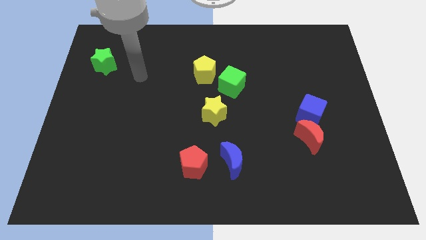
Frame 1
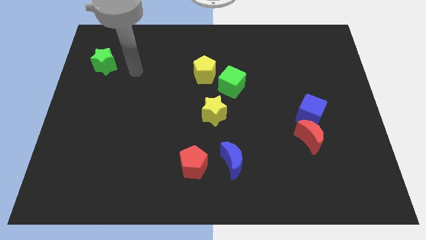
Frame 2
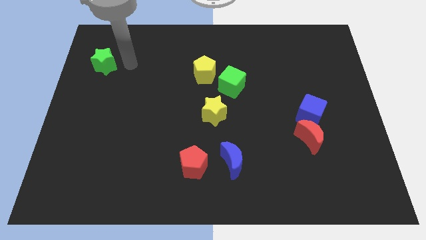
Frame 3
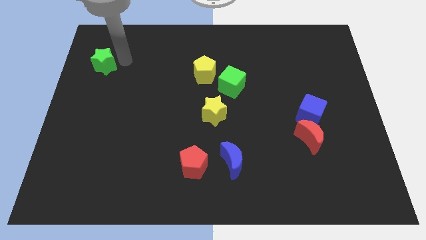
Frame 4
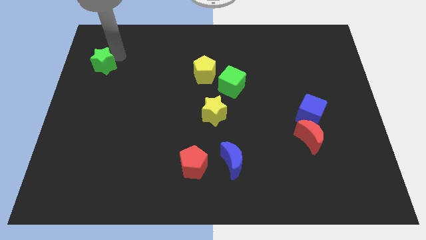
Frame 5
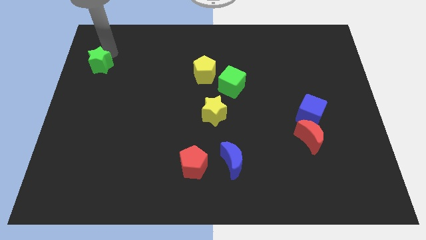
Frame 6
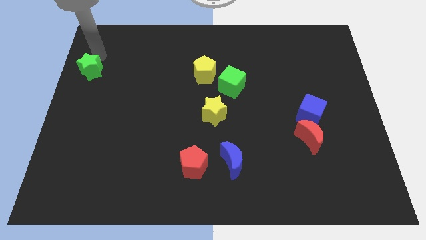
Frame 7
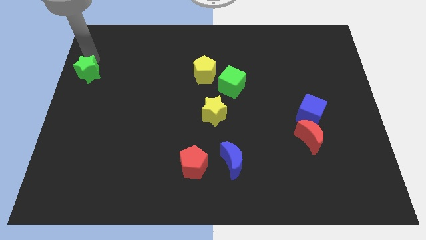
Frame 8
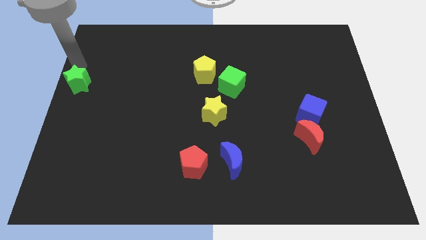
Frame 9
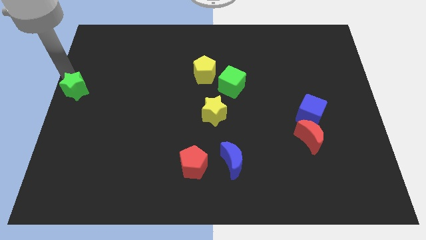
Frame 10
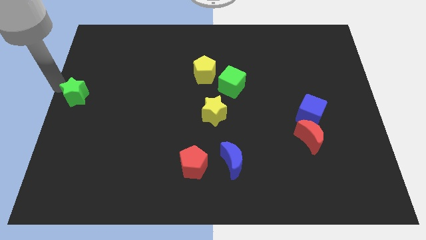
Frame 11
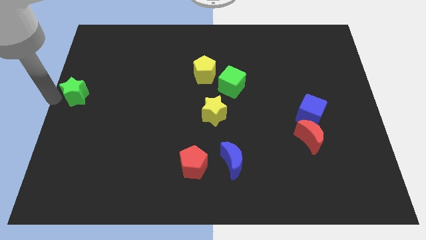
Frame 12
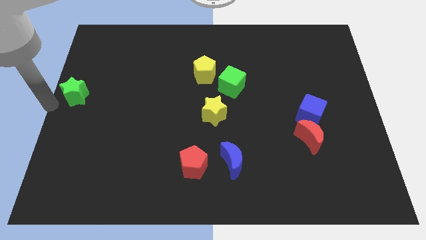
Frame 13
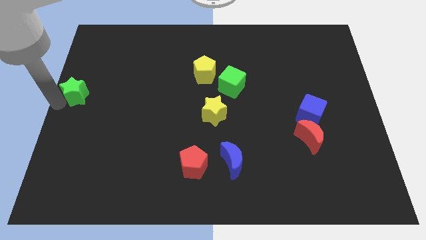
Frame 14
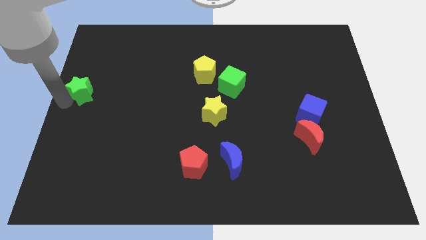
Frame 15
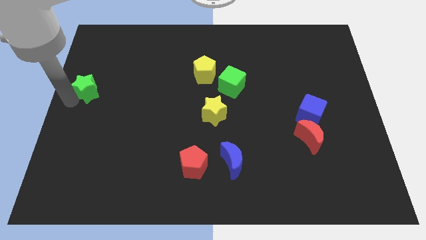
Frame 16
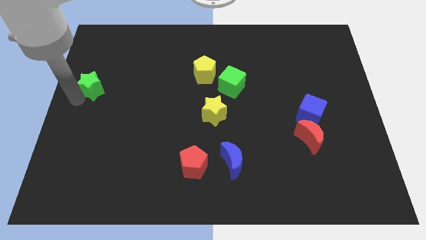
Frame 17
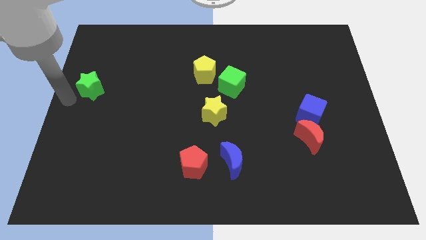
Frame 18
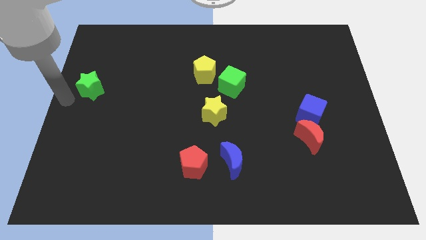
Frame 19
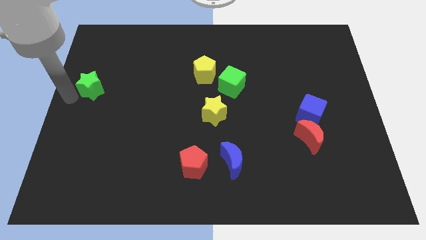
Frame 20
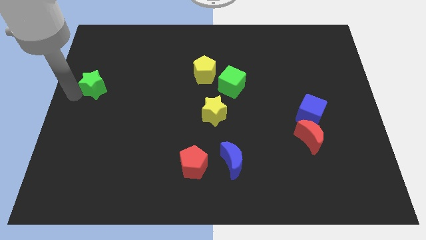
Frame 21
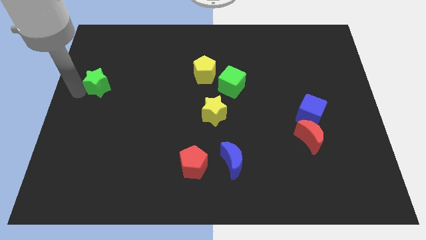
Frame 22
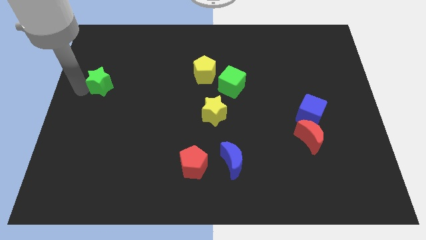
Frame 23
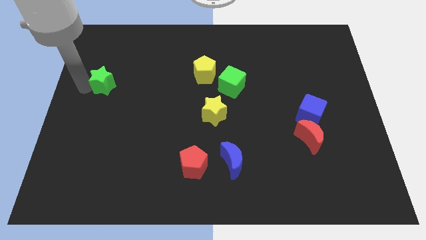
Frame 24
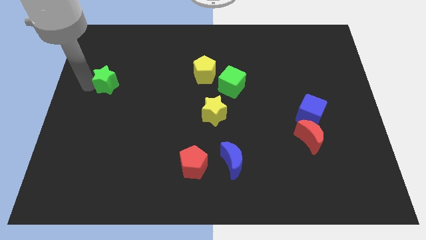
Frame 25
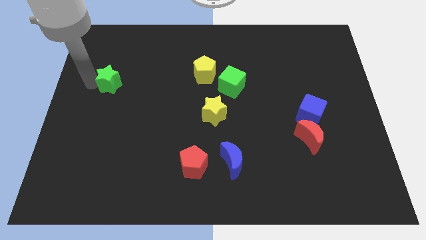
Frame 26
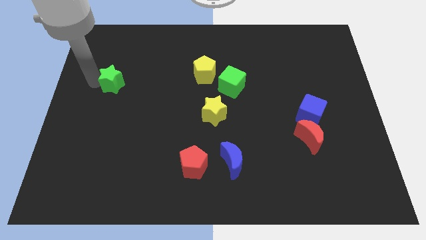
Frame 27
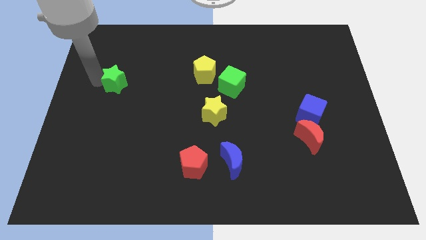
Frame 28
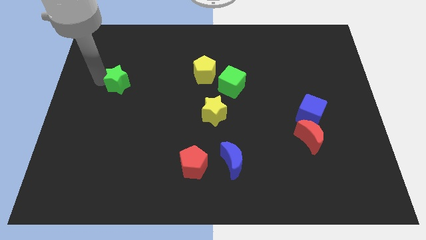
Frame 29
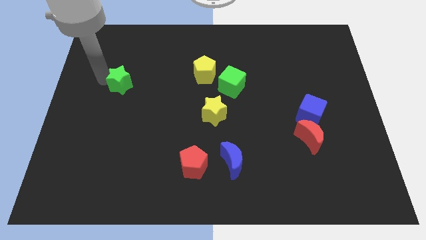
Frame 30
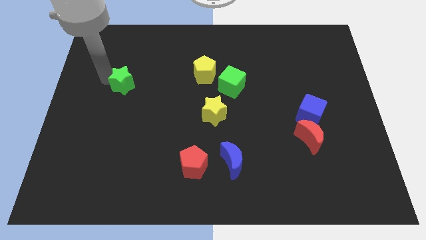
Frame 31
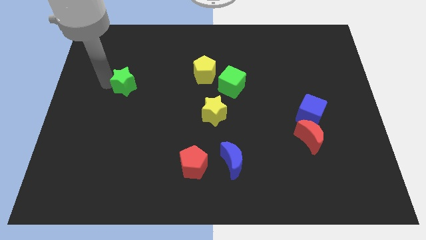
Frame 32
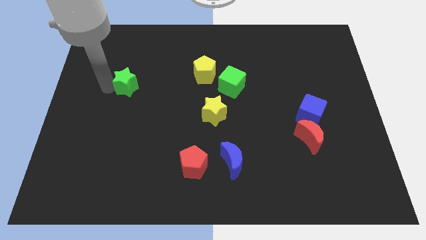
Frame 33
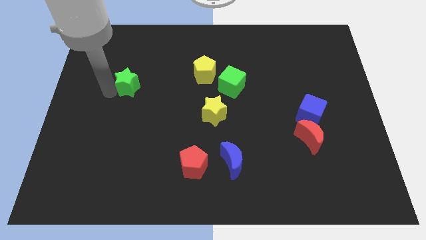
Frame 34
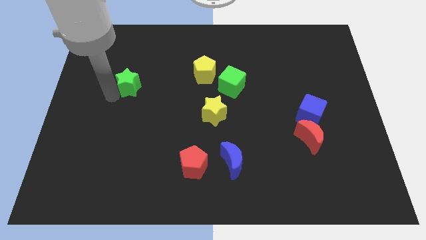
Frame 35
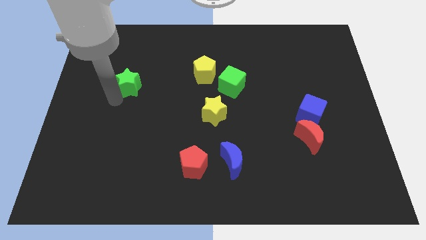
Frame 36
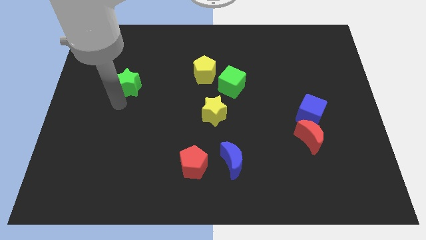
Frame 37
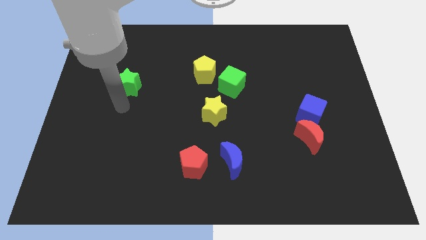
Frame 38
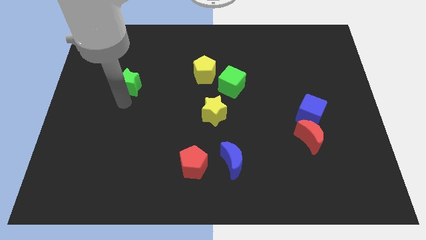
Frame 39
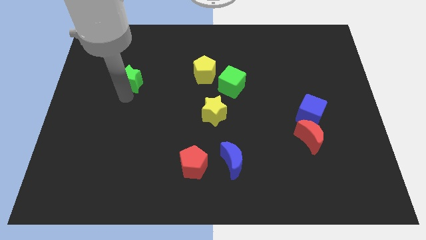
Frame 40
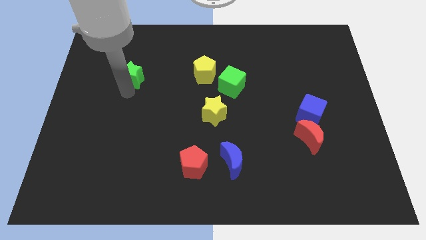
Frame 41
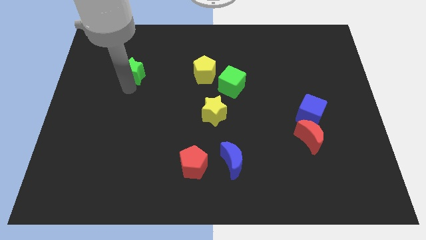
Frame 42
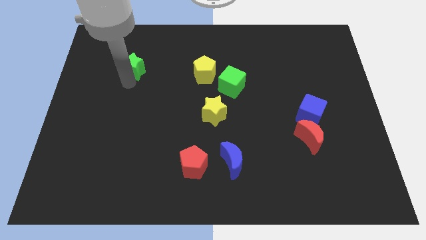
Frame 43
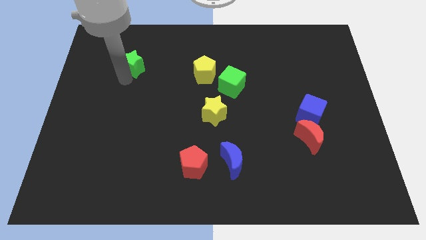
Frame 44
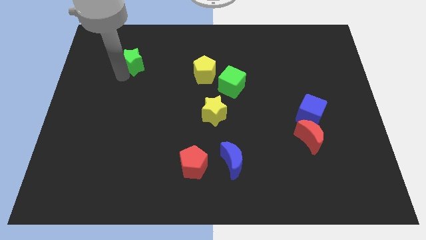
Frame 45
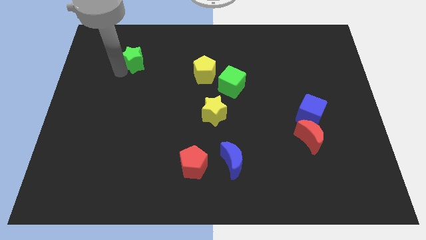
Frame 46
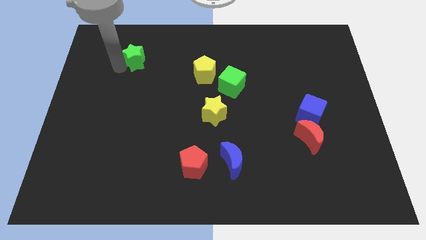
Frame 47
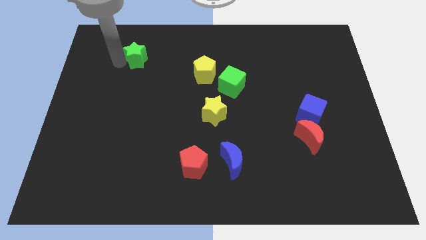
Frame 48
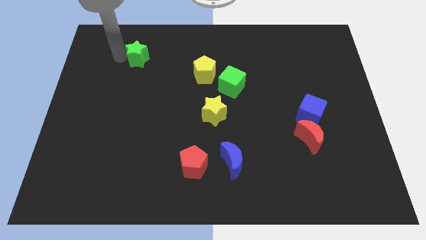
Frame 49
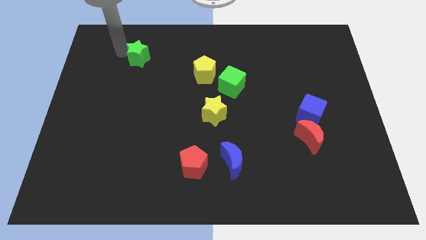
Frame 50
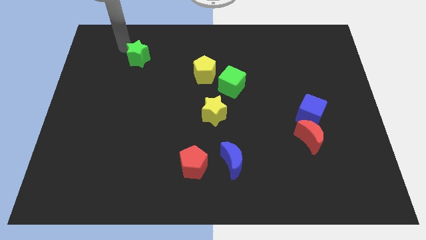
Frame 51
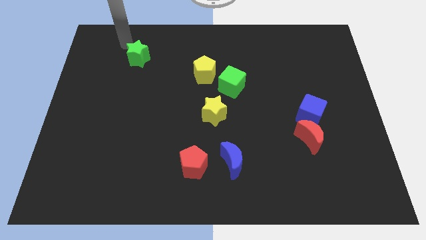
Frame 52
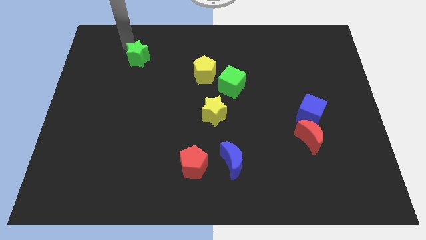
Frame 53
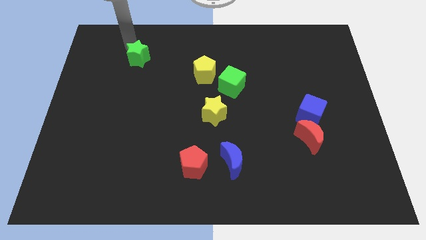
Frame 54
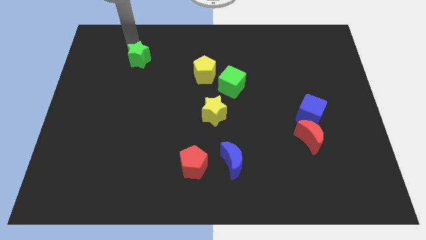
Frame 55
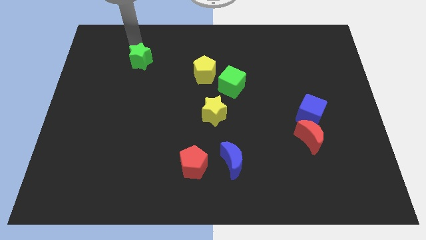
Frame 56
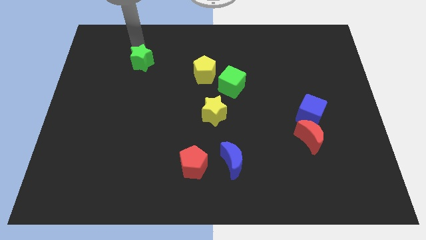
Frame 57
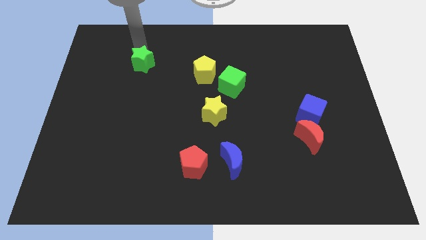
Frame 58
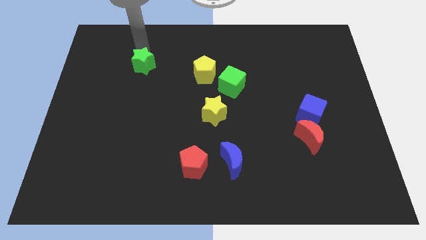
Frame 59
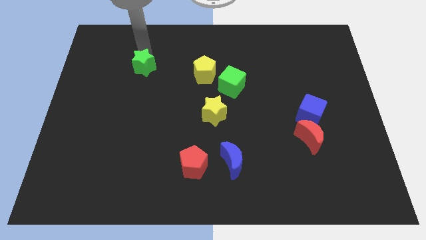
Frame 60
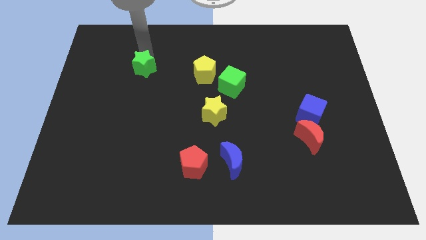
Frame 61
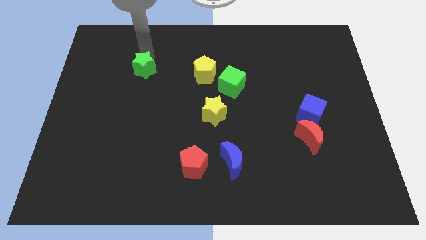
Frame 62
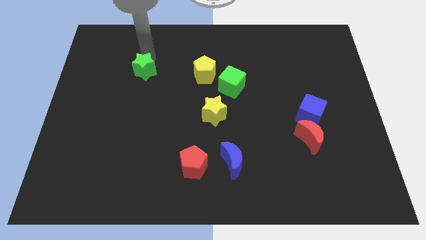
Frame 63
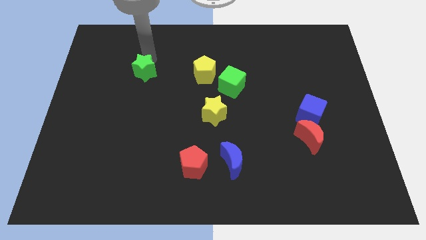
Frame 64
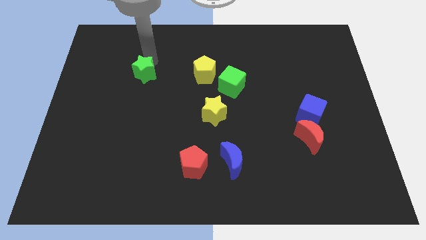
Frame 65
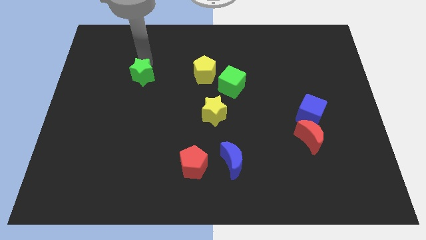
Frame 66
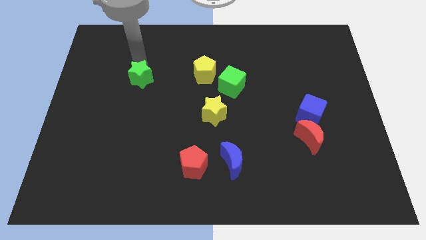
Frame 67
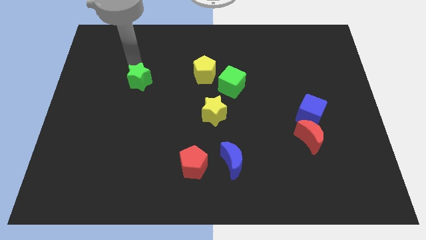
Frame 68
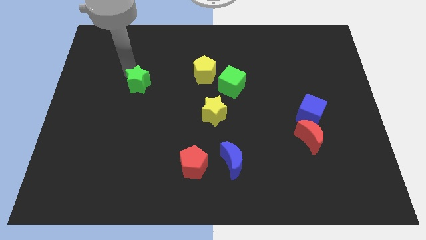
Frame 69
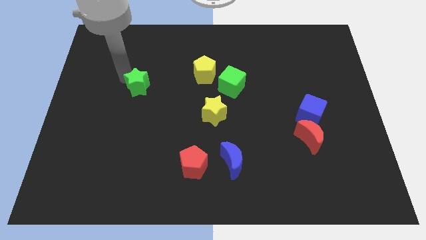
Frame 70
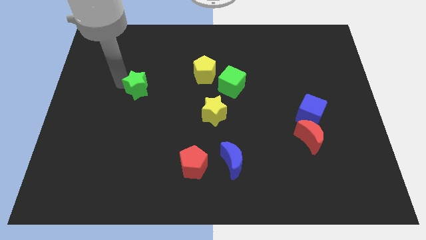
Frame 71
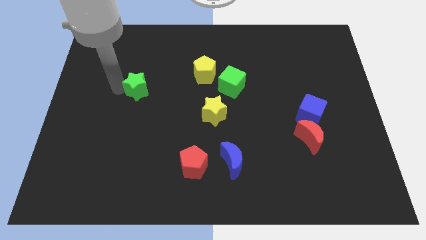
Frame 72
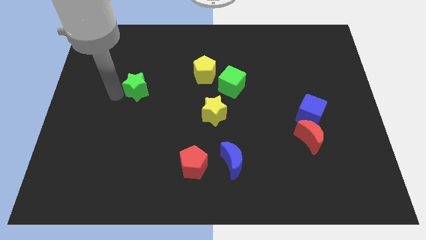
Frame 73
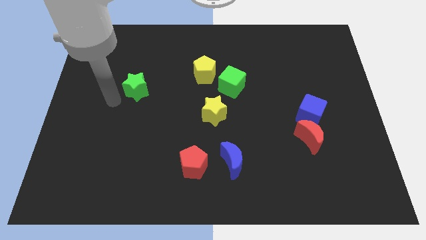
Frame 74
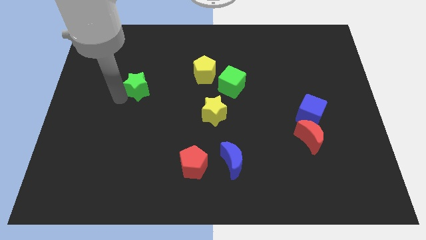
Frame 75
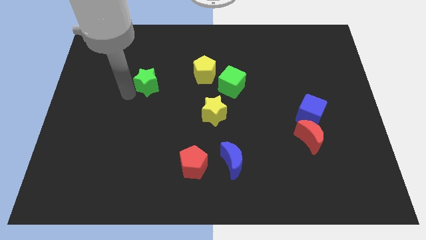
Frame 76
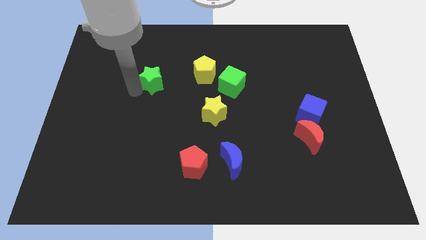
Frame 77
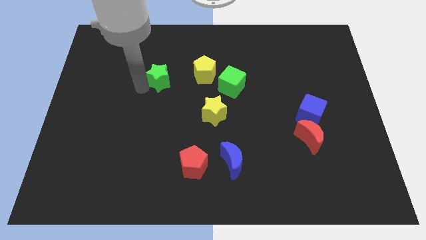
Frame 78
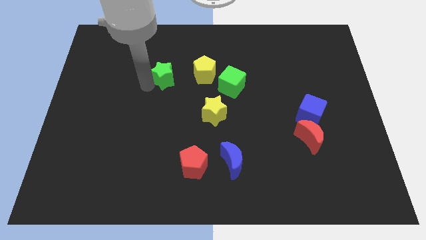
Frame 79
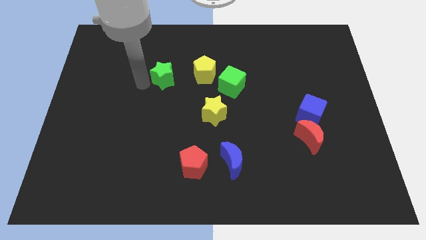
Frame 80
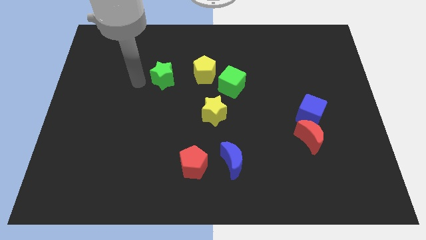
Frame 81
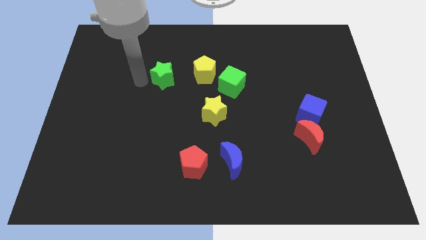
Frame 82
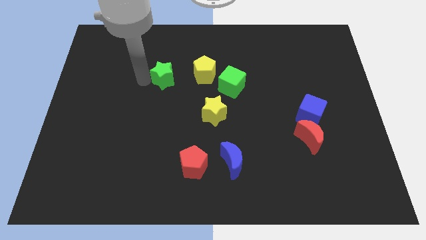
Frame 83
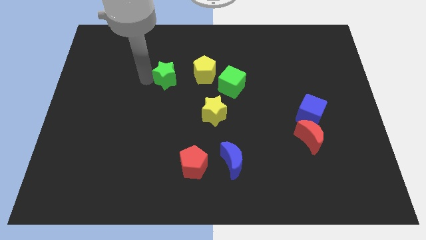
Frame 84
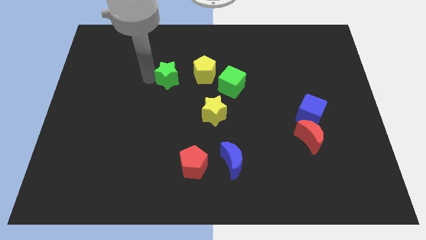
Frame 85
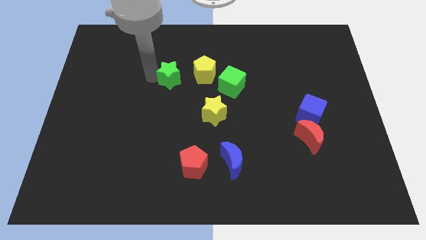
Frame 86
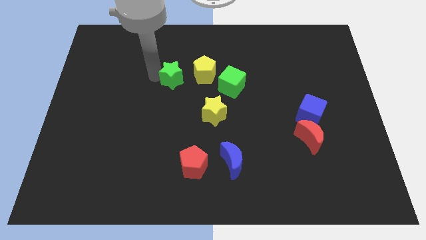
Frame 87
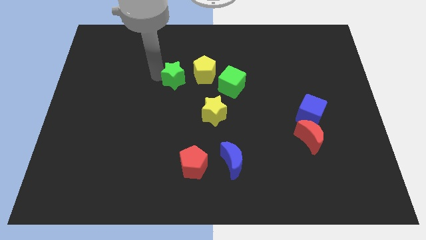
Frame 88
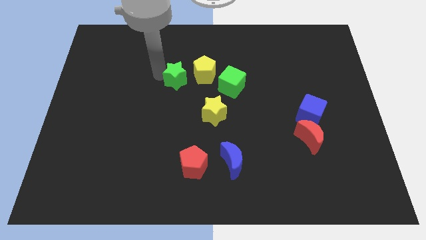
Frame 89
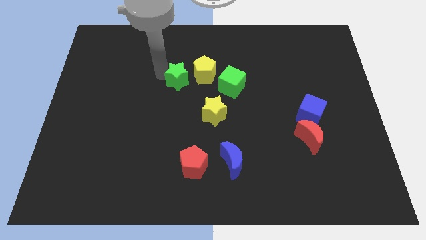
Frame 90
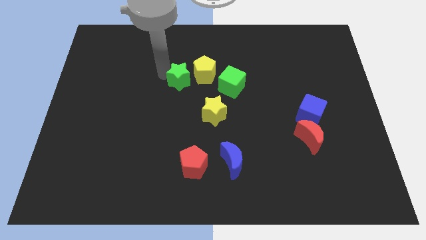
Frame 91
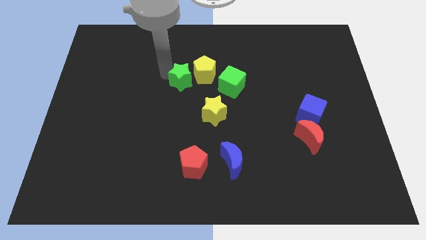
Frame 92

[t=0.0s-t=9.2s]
push the green star close to the yellow pentagon
